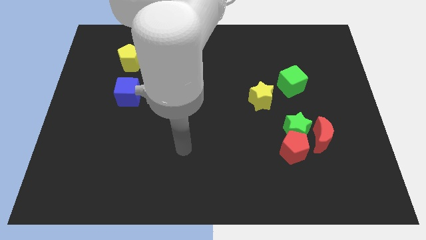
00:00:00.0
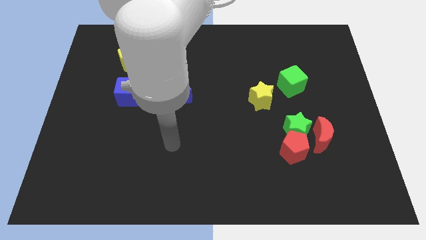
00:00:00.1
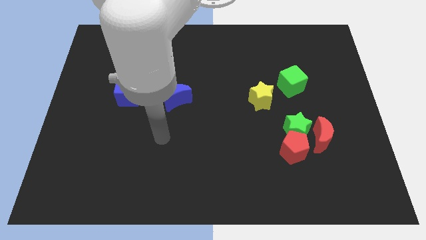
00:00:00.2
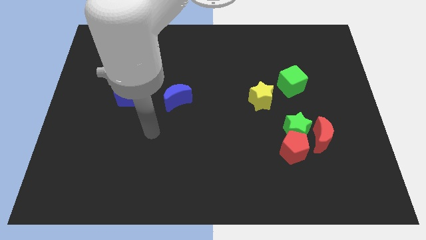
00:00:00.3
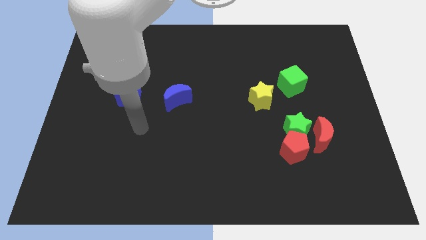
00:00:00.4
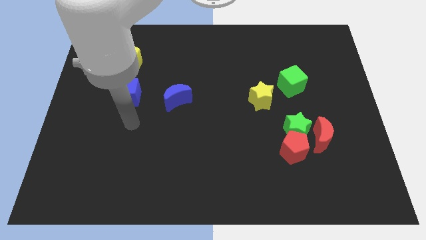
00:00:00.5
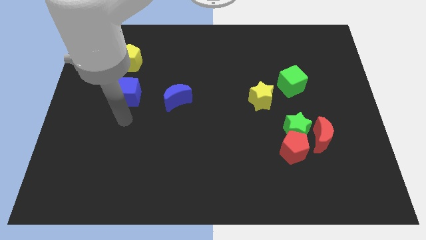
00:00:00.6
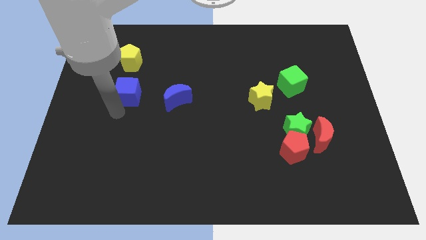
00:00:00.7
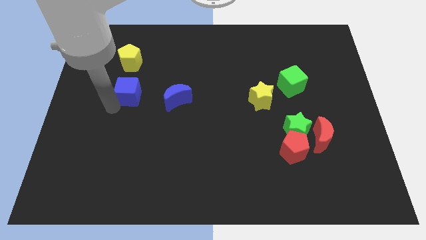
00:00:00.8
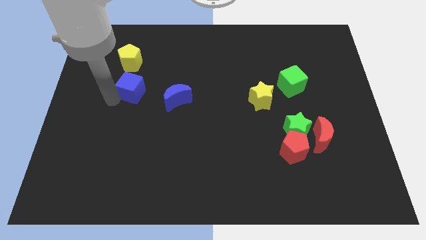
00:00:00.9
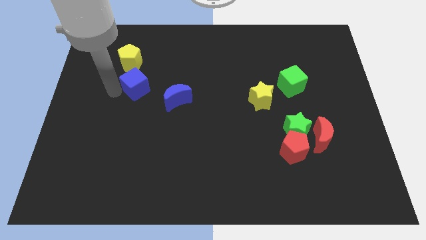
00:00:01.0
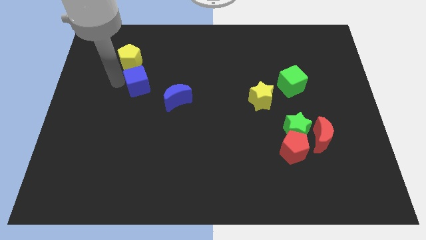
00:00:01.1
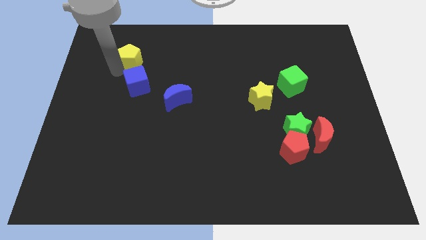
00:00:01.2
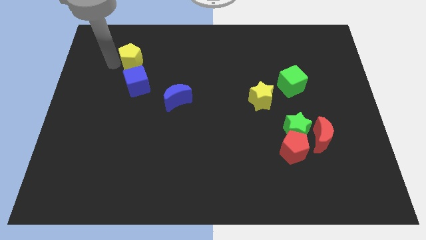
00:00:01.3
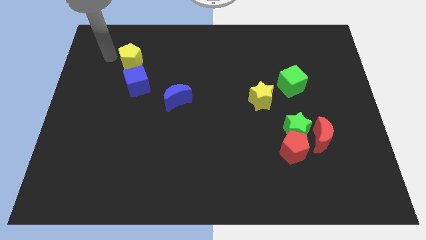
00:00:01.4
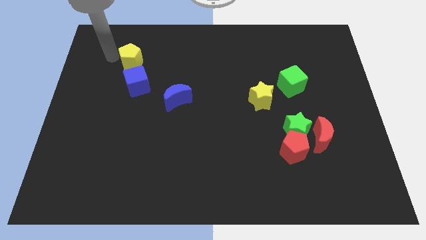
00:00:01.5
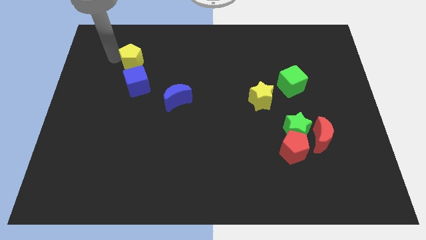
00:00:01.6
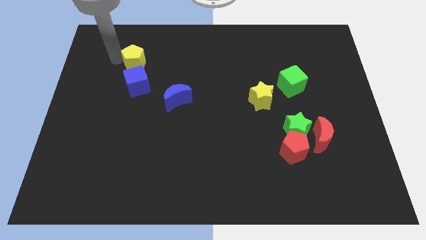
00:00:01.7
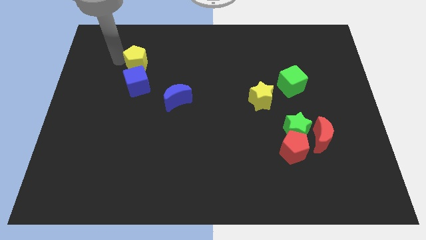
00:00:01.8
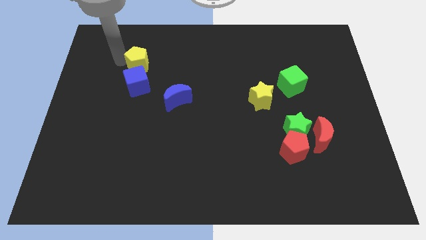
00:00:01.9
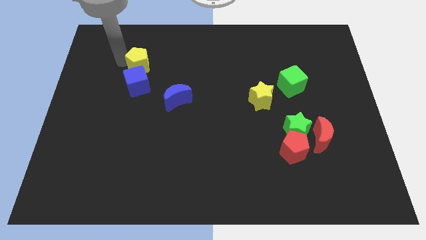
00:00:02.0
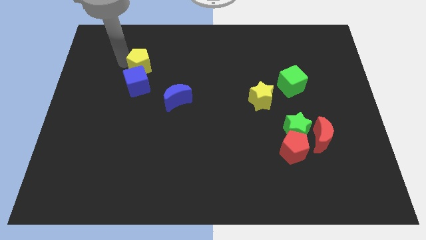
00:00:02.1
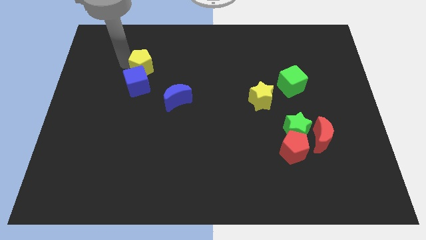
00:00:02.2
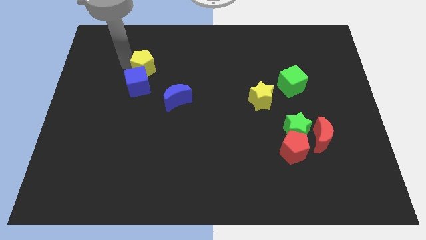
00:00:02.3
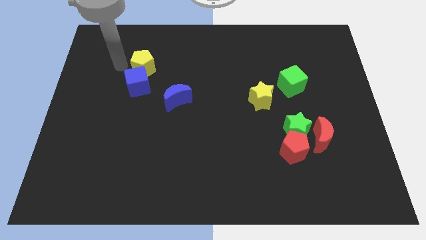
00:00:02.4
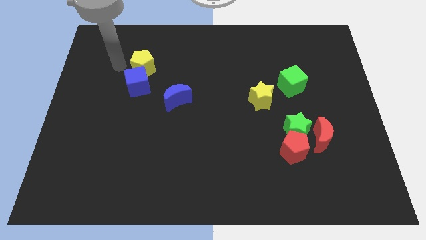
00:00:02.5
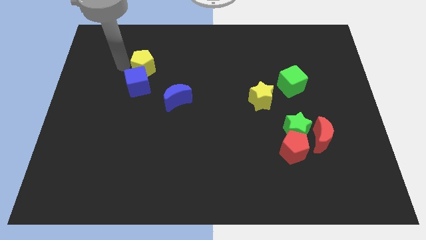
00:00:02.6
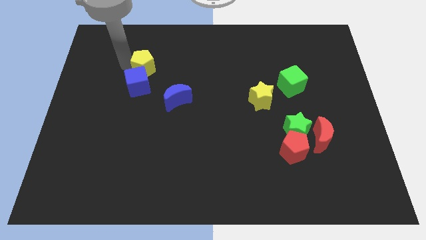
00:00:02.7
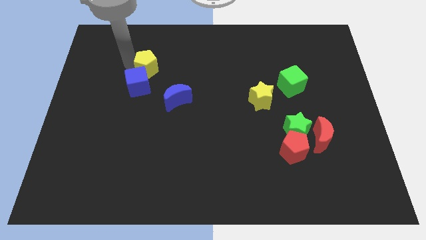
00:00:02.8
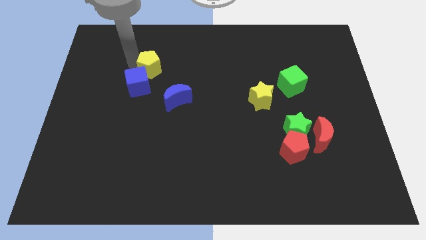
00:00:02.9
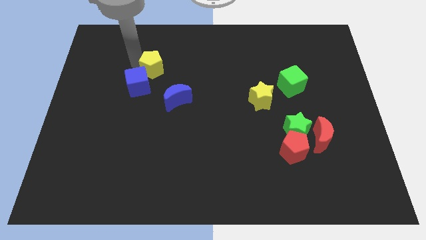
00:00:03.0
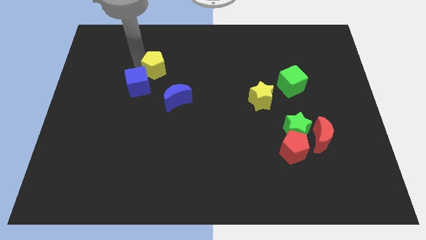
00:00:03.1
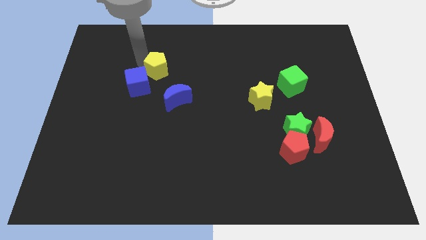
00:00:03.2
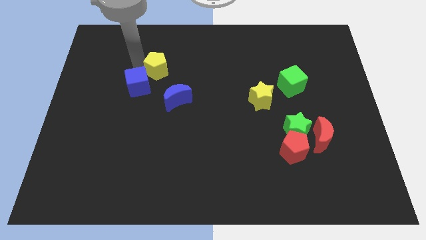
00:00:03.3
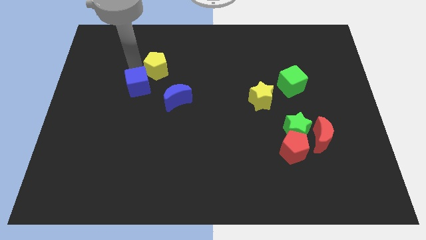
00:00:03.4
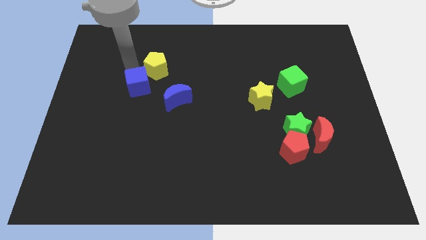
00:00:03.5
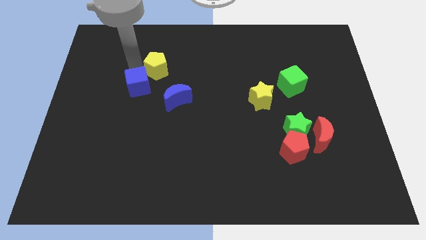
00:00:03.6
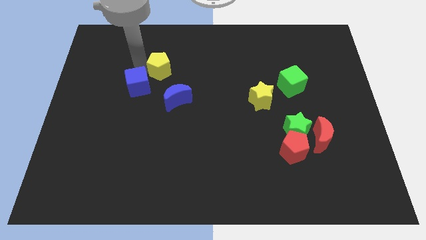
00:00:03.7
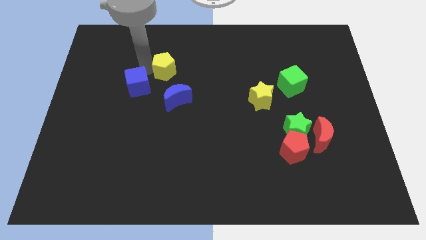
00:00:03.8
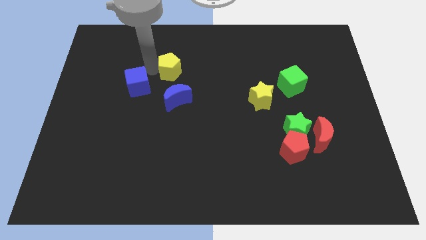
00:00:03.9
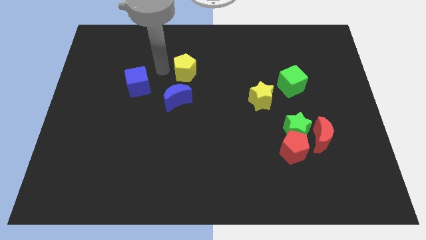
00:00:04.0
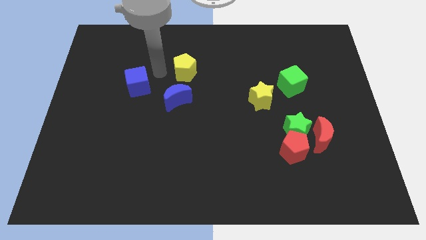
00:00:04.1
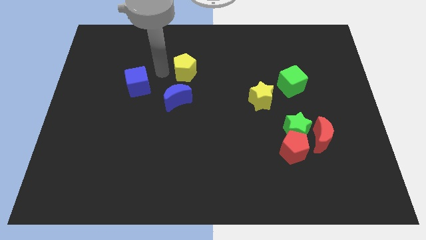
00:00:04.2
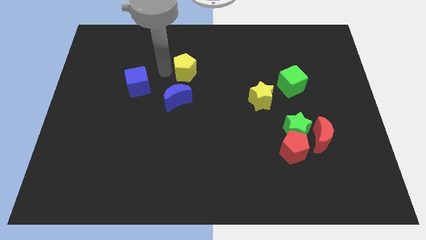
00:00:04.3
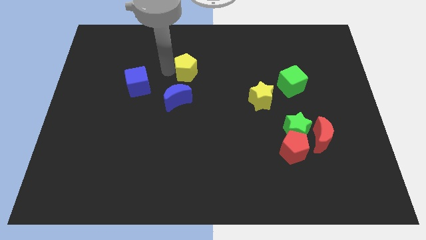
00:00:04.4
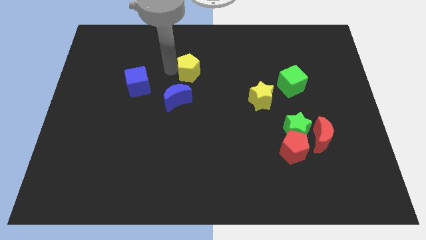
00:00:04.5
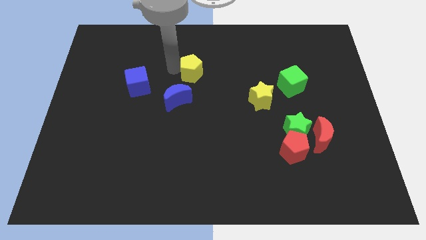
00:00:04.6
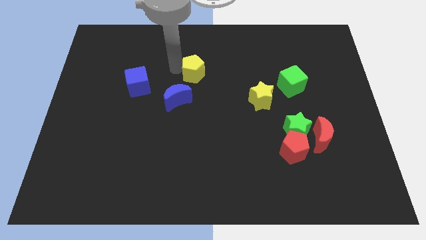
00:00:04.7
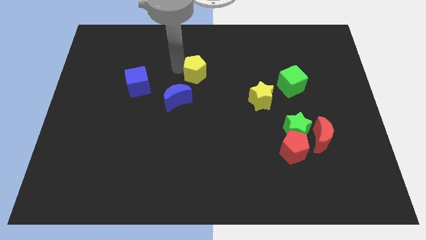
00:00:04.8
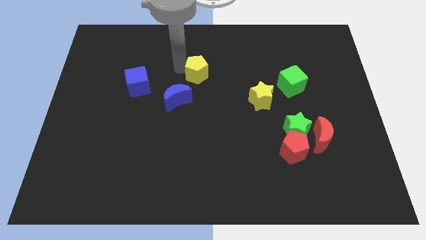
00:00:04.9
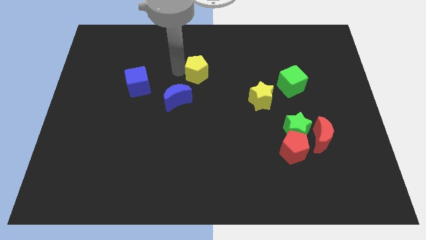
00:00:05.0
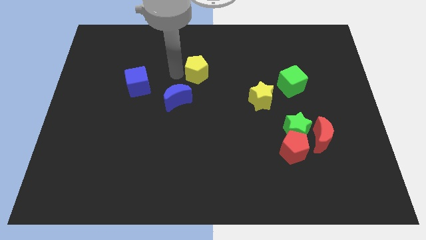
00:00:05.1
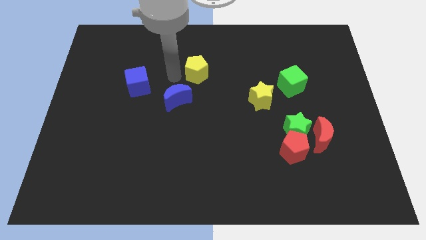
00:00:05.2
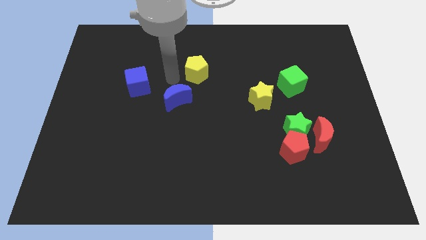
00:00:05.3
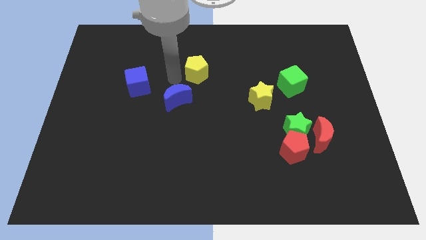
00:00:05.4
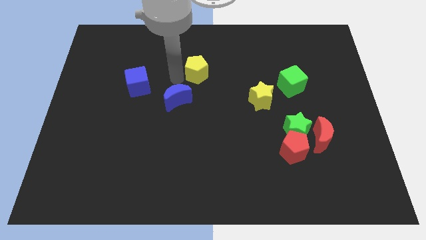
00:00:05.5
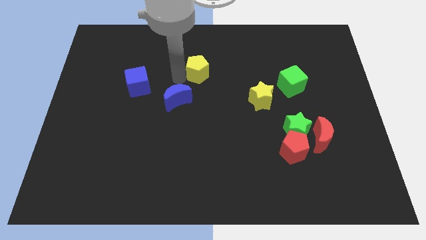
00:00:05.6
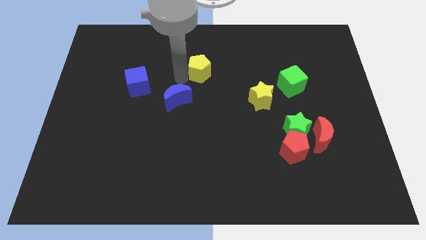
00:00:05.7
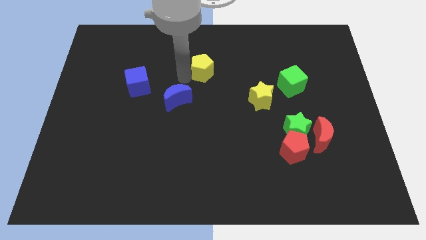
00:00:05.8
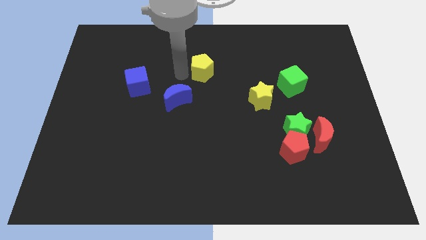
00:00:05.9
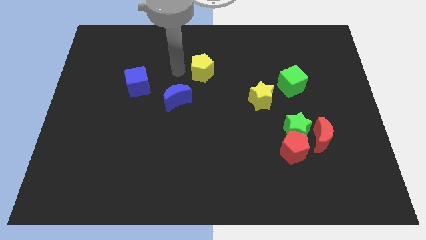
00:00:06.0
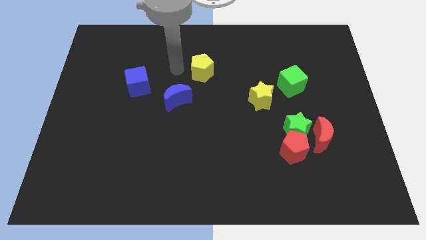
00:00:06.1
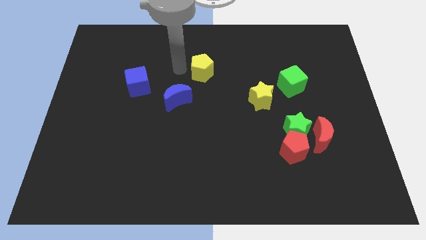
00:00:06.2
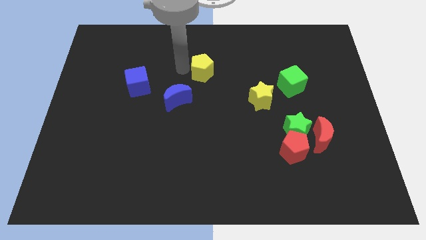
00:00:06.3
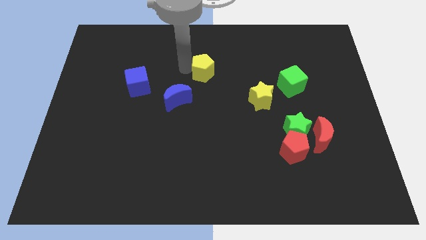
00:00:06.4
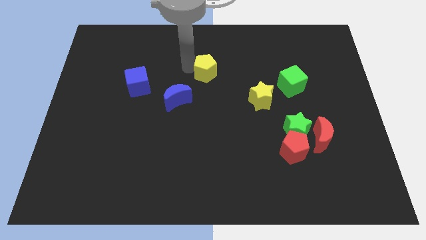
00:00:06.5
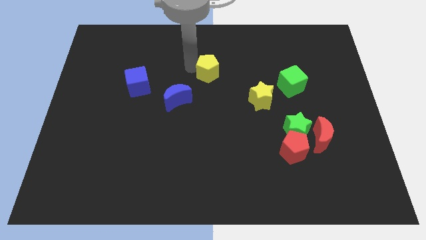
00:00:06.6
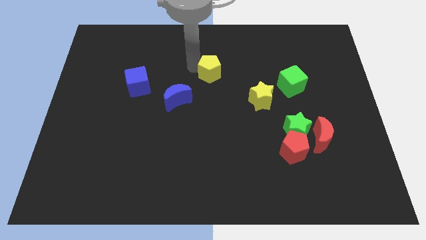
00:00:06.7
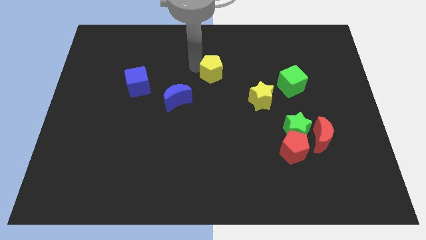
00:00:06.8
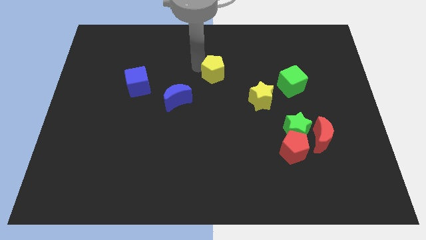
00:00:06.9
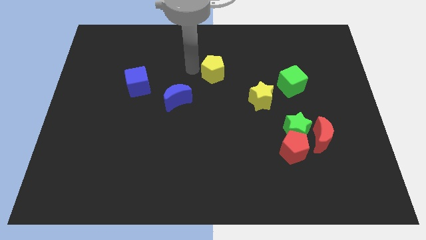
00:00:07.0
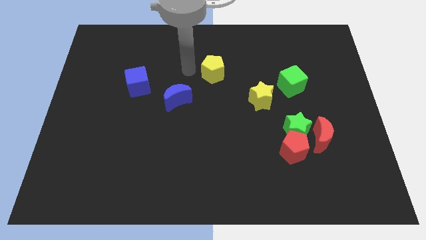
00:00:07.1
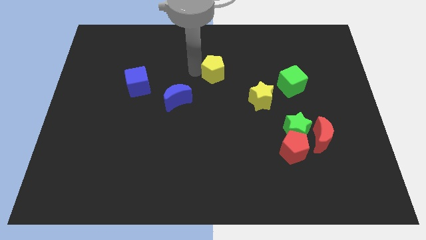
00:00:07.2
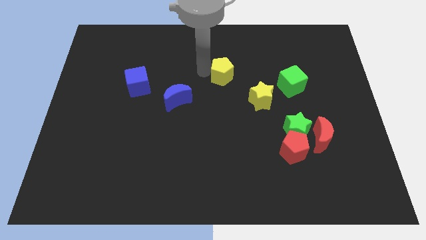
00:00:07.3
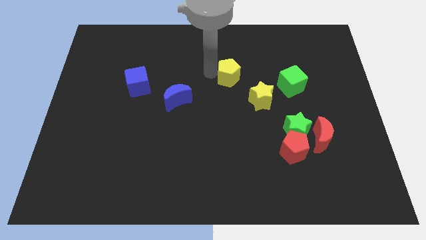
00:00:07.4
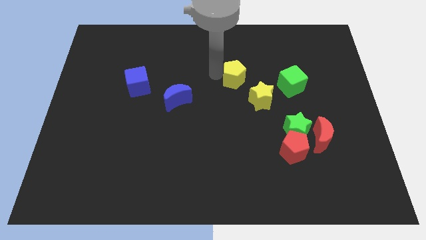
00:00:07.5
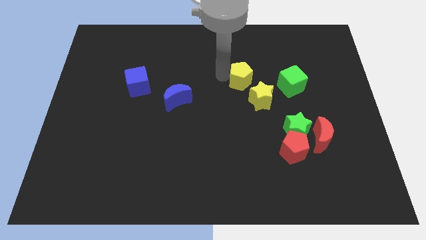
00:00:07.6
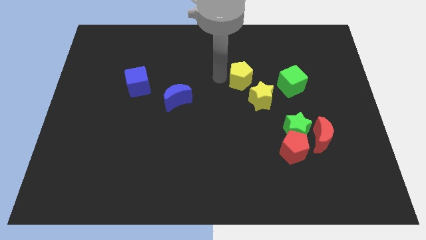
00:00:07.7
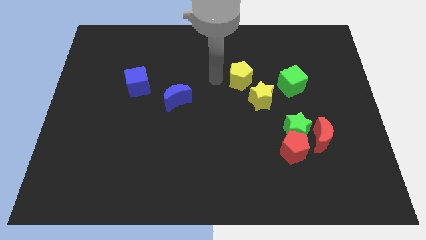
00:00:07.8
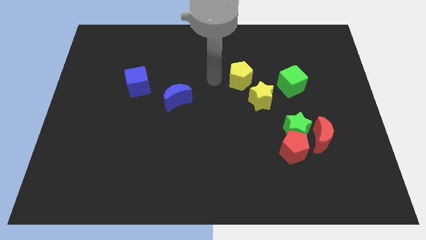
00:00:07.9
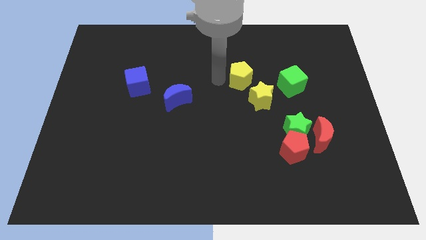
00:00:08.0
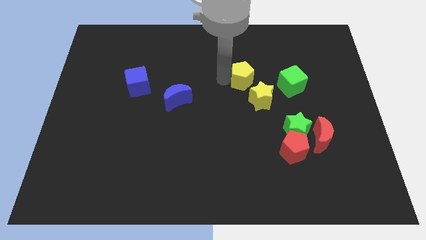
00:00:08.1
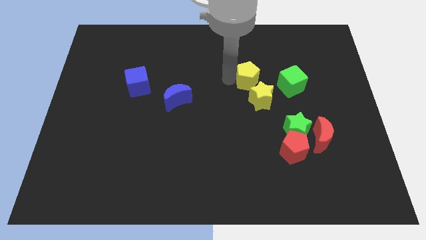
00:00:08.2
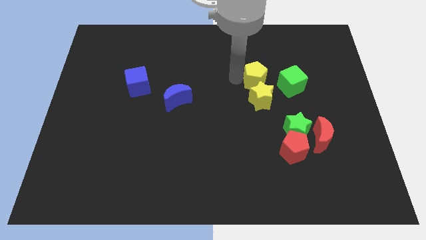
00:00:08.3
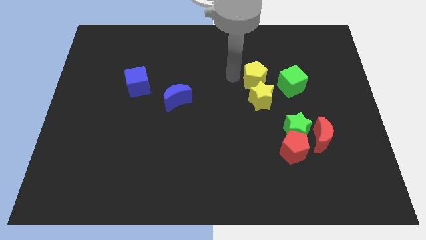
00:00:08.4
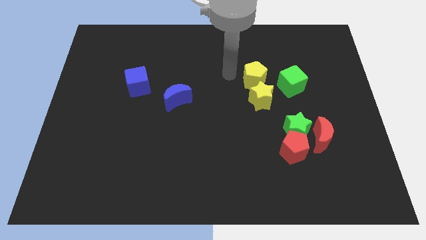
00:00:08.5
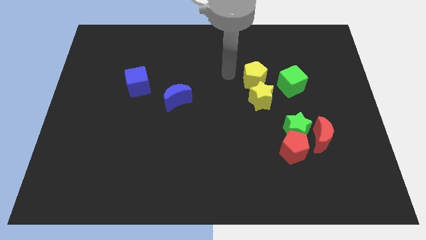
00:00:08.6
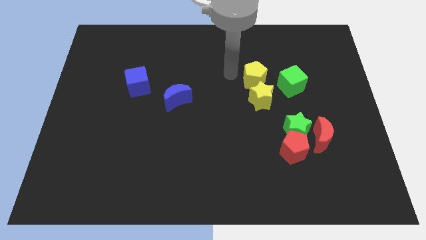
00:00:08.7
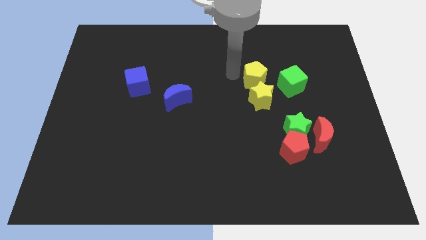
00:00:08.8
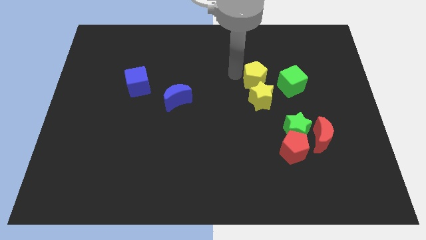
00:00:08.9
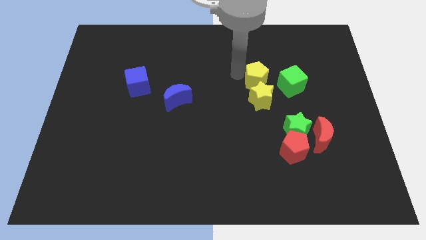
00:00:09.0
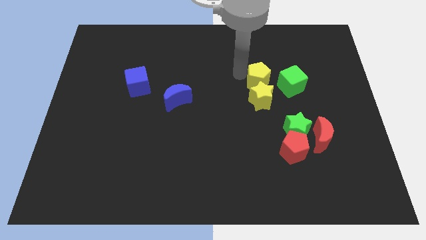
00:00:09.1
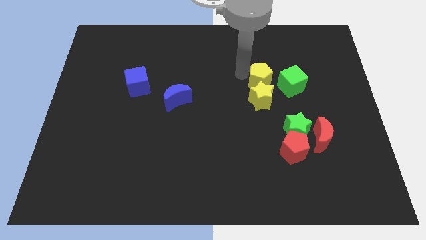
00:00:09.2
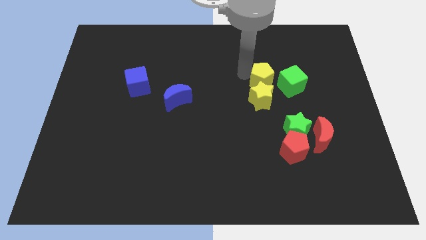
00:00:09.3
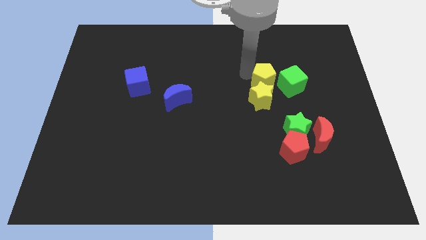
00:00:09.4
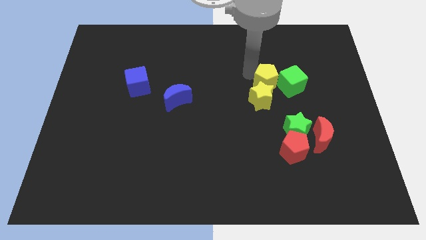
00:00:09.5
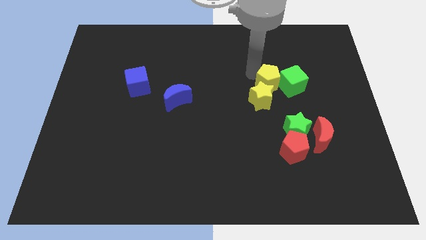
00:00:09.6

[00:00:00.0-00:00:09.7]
push the yellow pentagon towards the green cube
